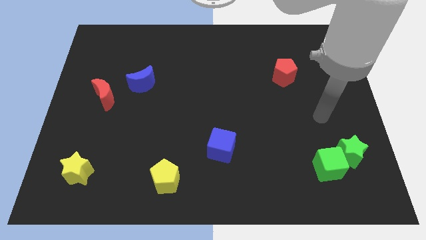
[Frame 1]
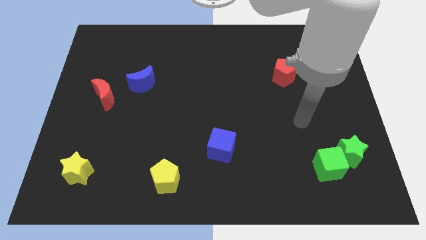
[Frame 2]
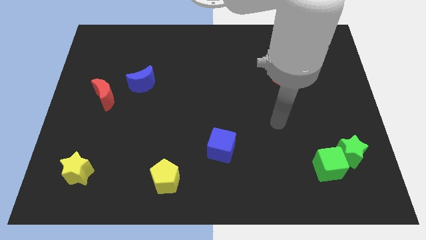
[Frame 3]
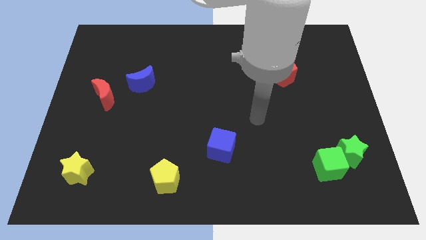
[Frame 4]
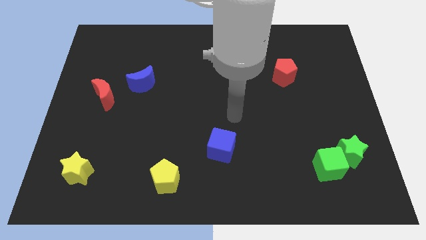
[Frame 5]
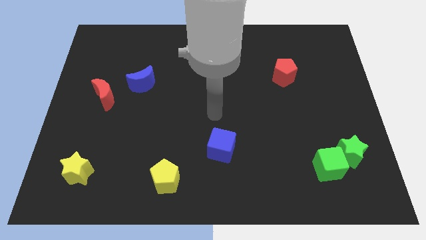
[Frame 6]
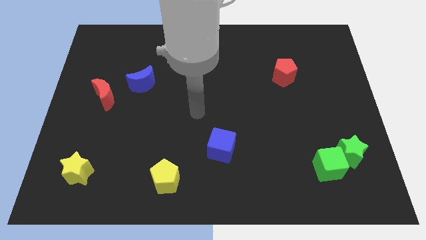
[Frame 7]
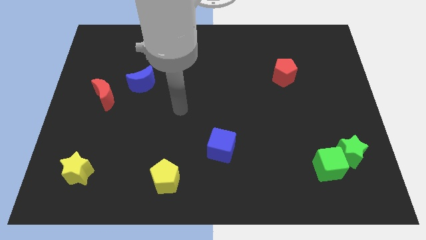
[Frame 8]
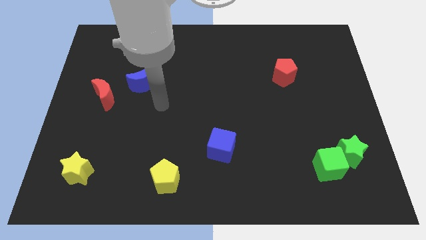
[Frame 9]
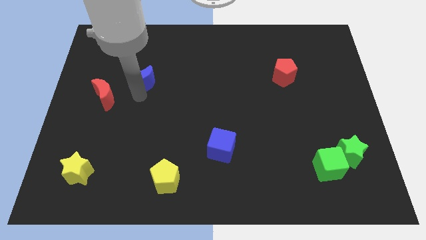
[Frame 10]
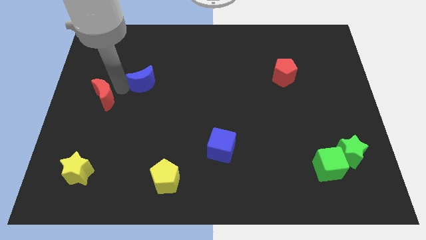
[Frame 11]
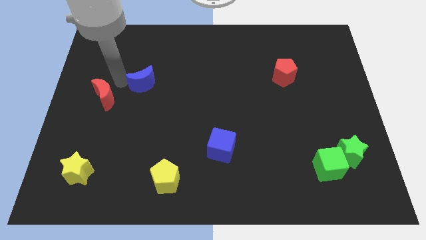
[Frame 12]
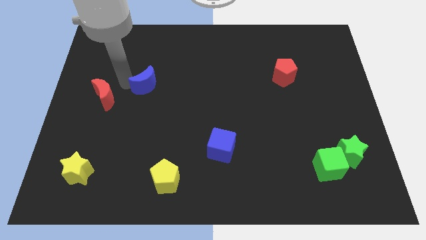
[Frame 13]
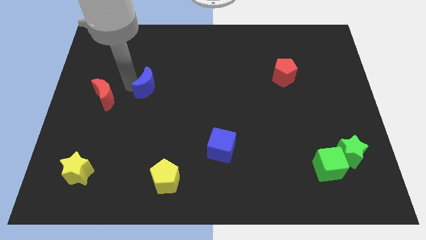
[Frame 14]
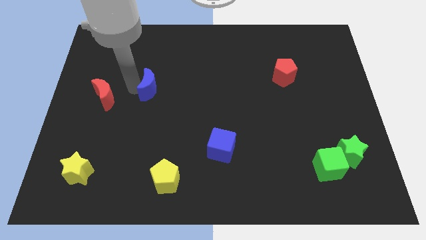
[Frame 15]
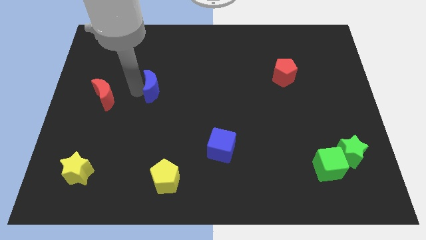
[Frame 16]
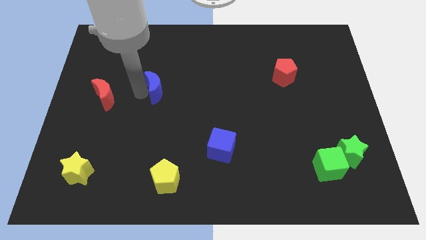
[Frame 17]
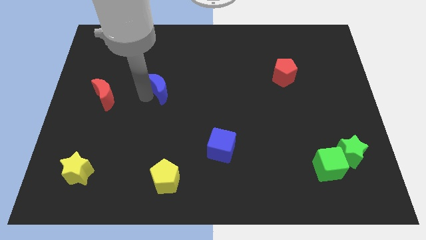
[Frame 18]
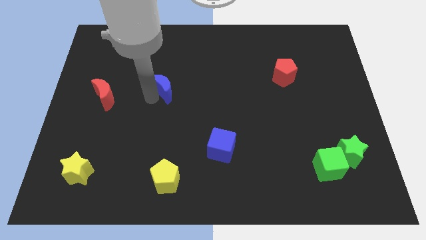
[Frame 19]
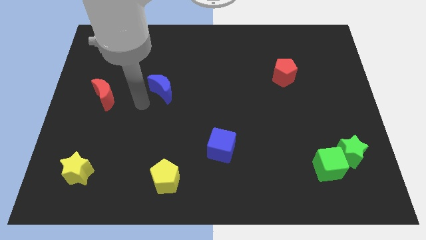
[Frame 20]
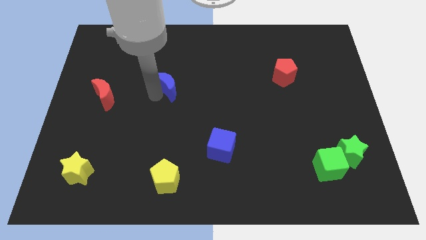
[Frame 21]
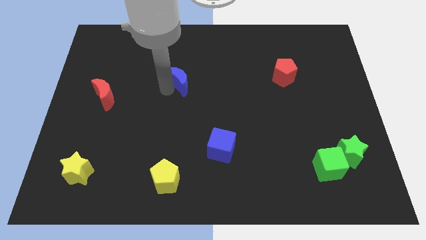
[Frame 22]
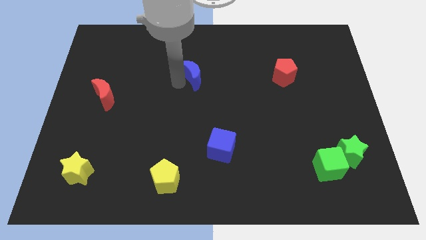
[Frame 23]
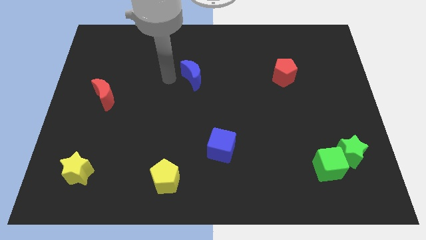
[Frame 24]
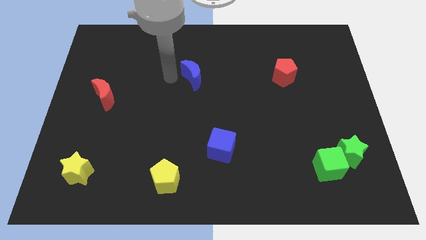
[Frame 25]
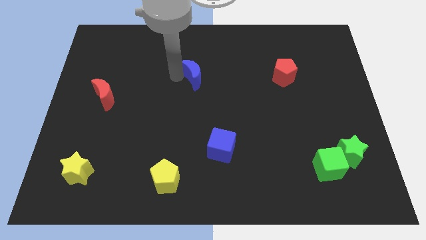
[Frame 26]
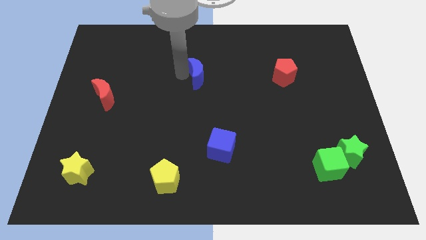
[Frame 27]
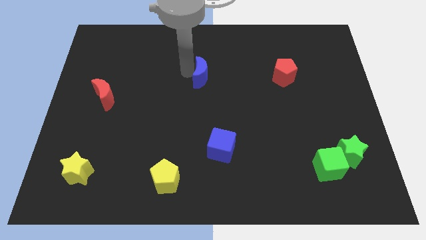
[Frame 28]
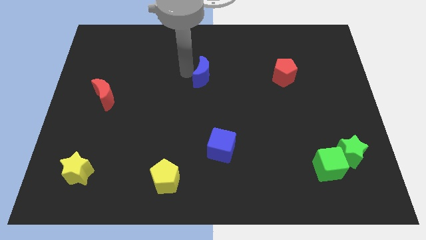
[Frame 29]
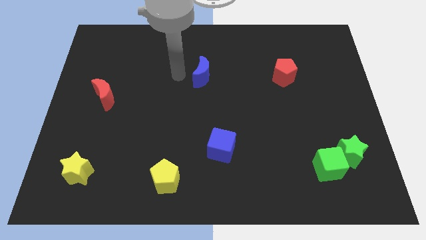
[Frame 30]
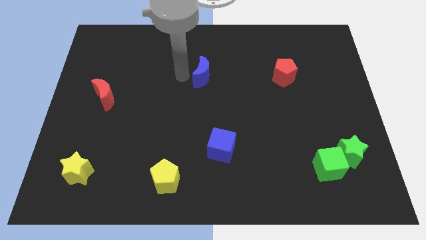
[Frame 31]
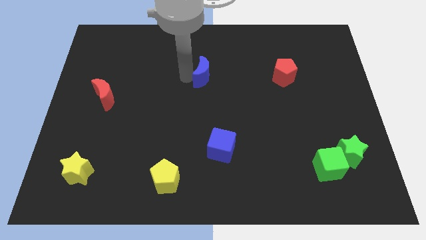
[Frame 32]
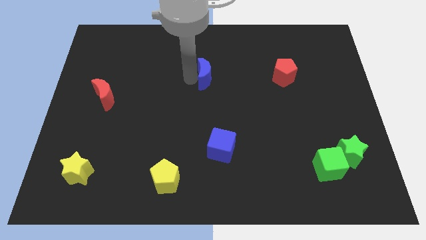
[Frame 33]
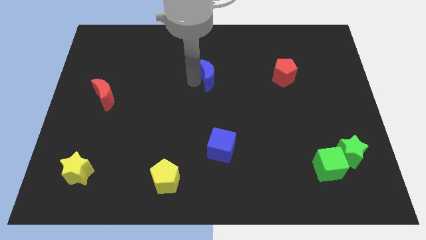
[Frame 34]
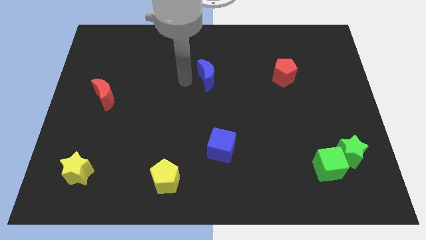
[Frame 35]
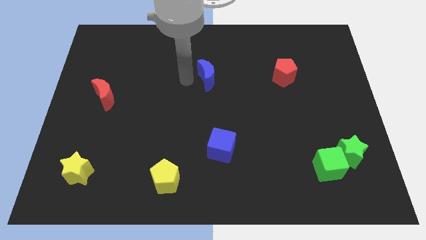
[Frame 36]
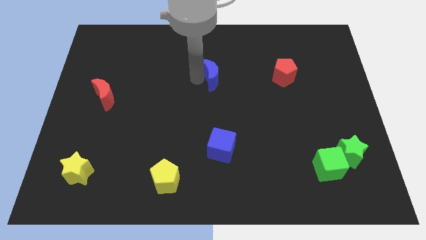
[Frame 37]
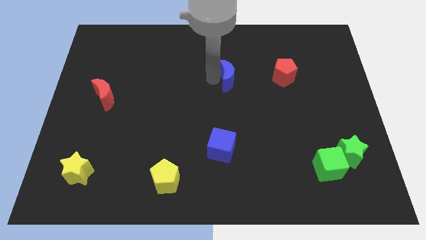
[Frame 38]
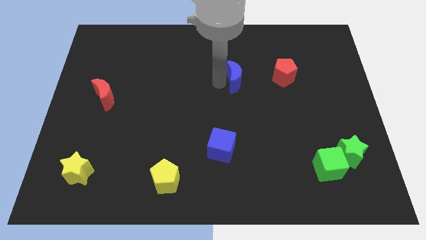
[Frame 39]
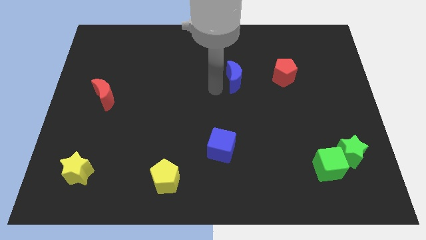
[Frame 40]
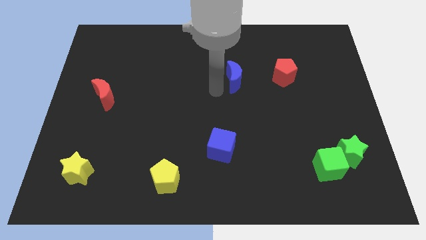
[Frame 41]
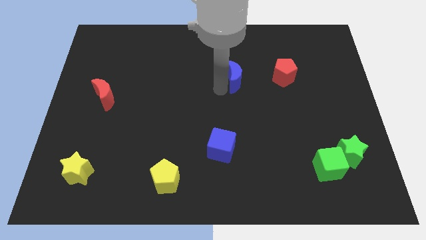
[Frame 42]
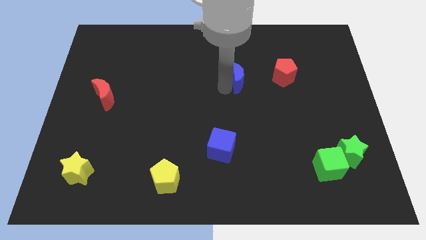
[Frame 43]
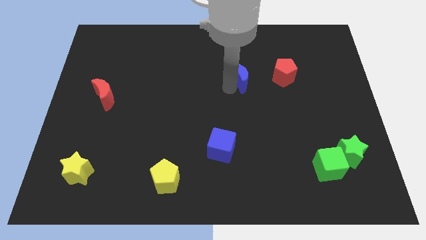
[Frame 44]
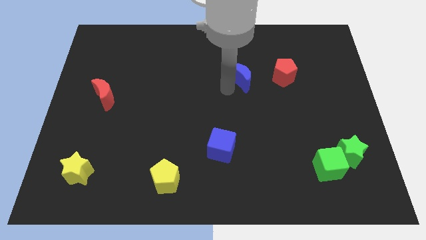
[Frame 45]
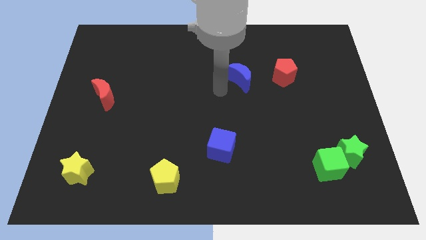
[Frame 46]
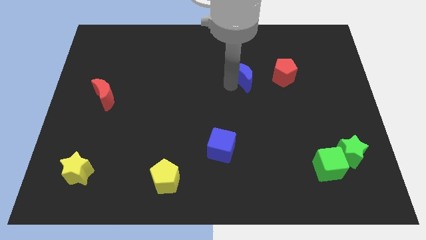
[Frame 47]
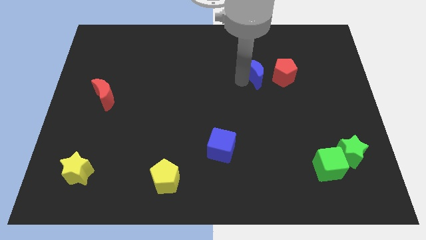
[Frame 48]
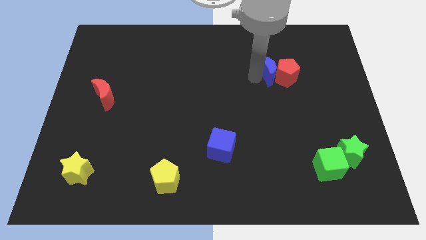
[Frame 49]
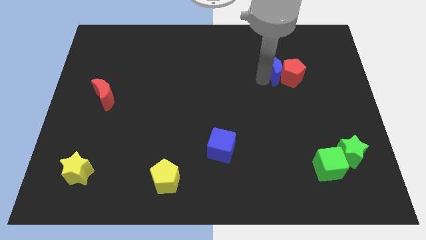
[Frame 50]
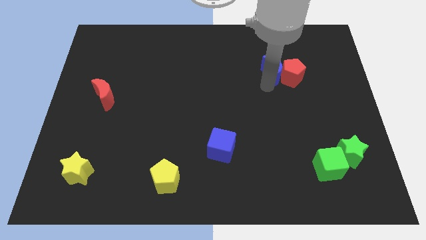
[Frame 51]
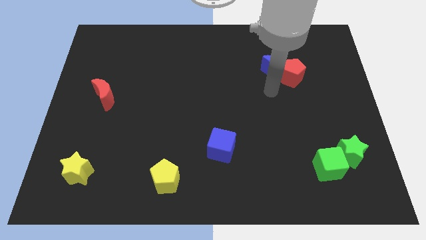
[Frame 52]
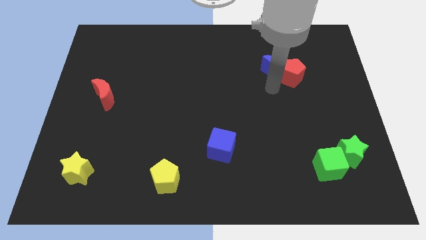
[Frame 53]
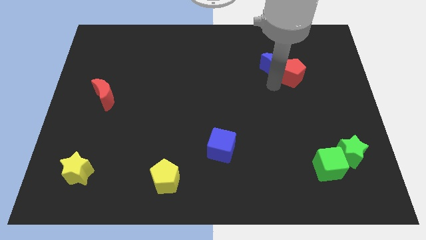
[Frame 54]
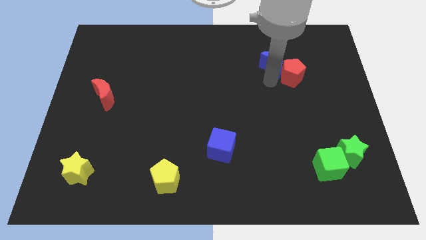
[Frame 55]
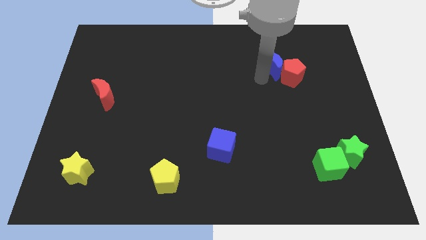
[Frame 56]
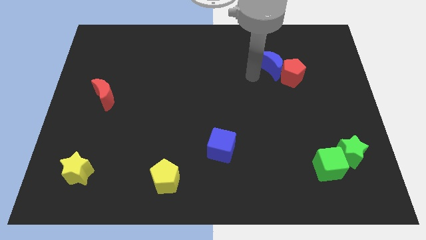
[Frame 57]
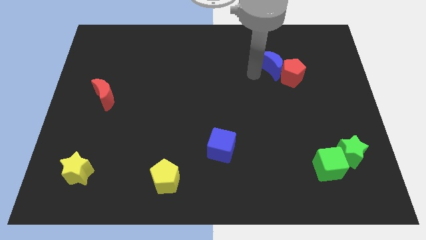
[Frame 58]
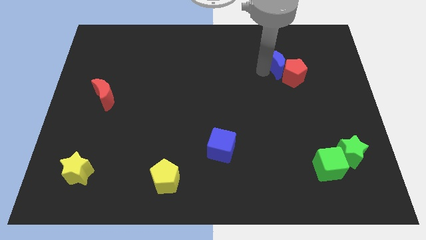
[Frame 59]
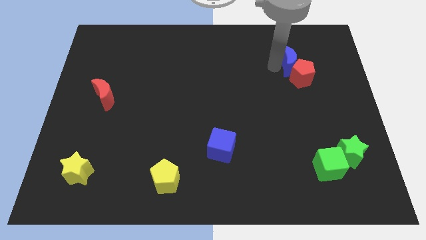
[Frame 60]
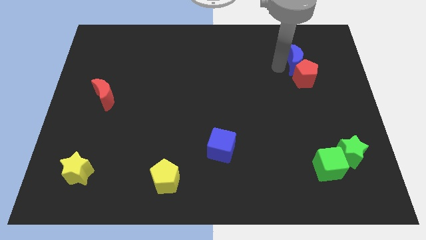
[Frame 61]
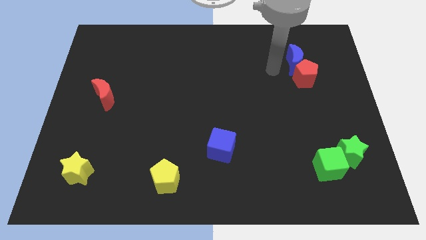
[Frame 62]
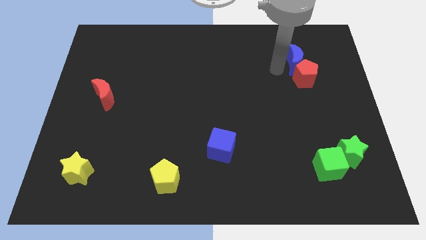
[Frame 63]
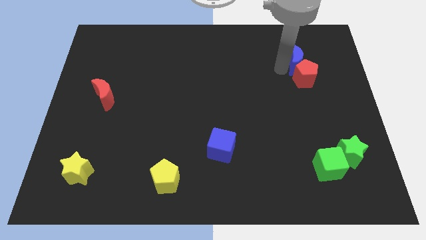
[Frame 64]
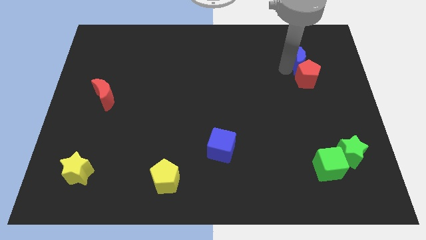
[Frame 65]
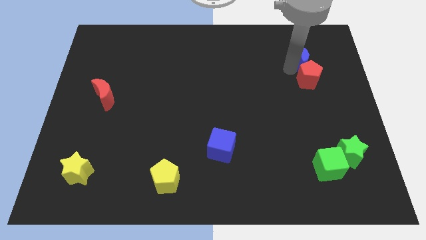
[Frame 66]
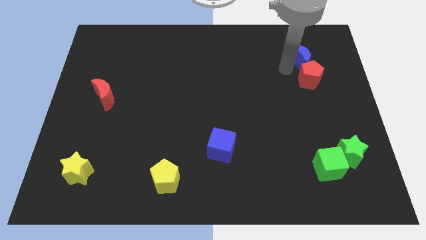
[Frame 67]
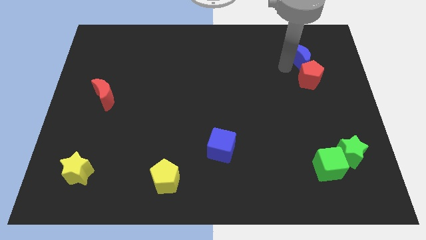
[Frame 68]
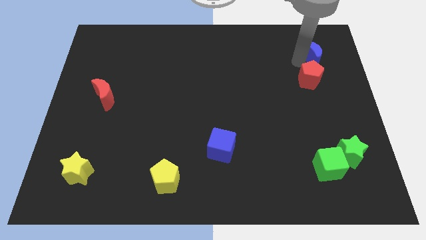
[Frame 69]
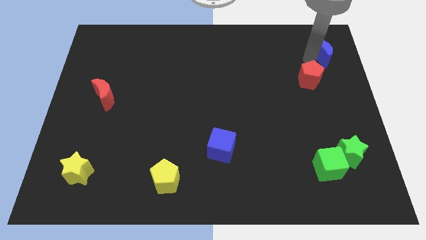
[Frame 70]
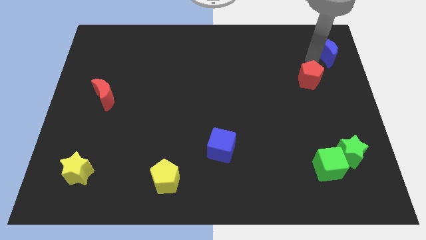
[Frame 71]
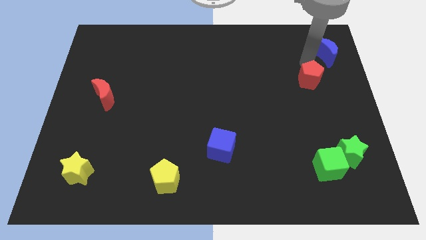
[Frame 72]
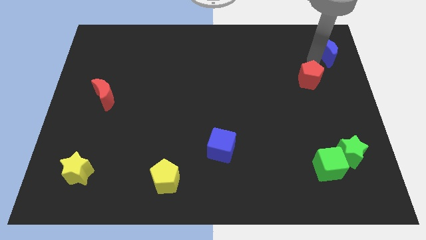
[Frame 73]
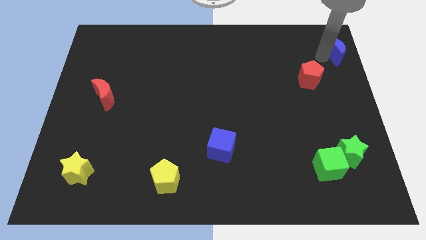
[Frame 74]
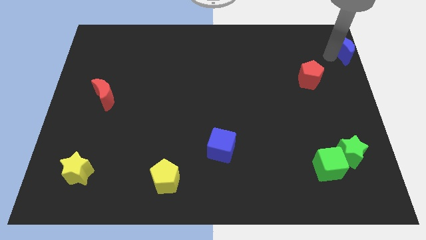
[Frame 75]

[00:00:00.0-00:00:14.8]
slide the blue moon to the upper right corner

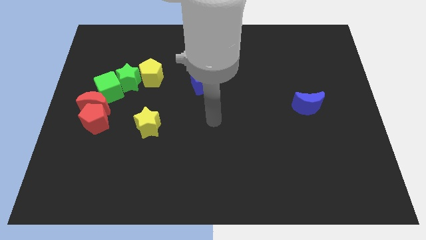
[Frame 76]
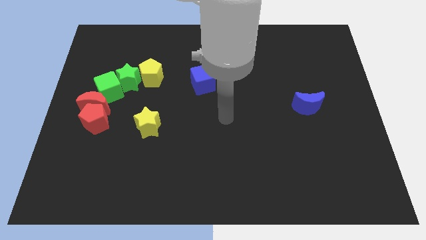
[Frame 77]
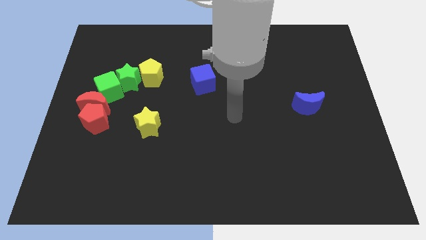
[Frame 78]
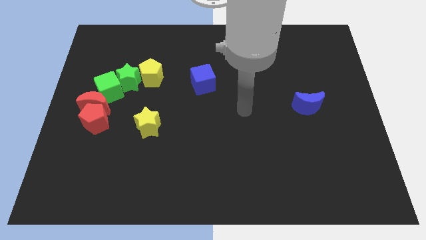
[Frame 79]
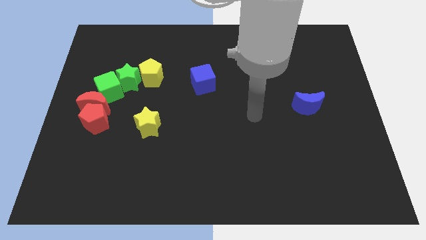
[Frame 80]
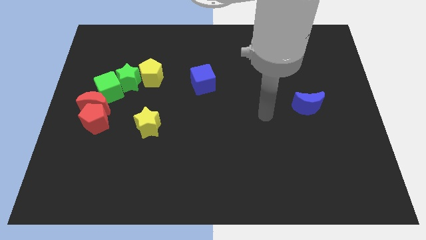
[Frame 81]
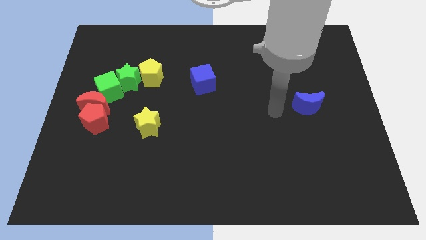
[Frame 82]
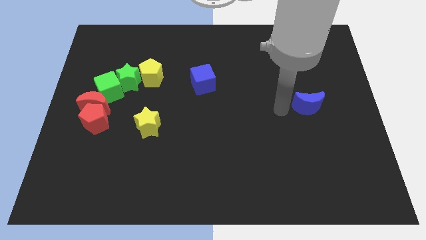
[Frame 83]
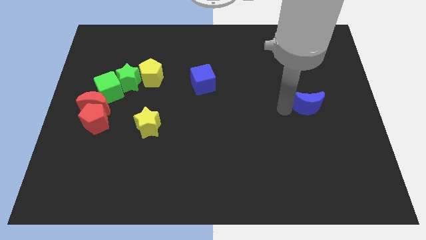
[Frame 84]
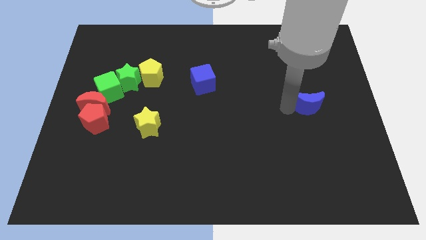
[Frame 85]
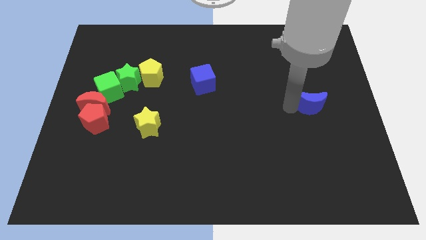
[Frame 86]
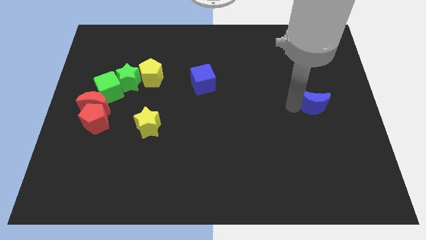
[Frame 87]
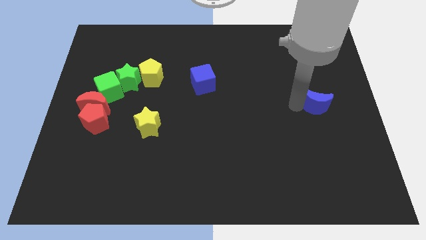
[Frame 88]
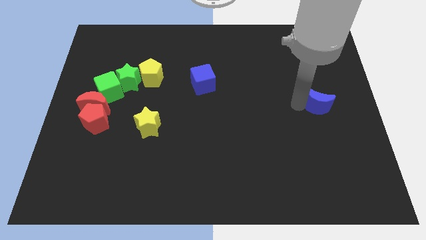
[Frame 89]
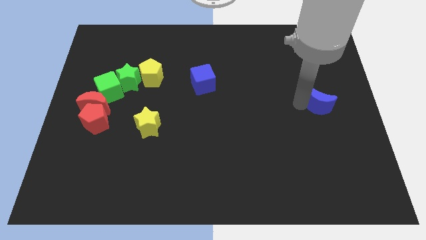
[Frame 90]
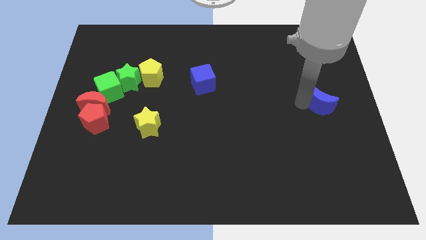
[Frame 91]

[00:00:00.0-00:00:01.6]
push the blue moon to the center right
